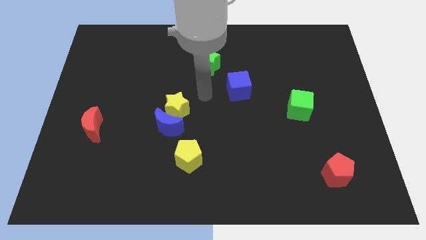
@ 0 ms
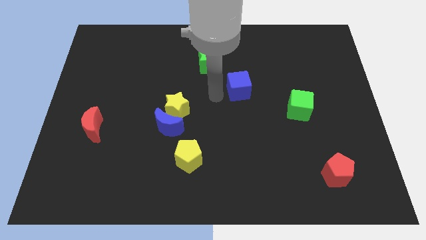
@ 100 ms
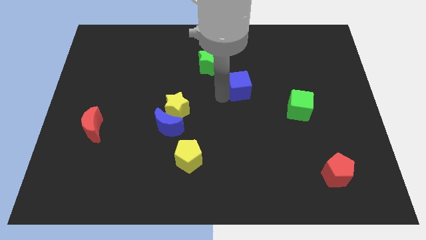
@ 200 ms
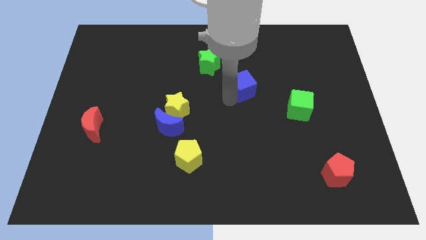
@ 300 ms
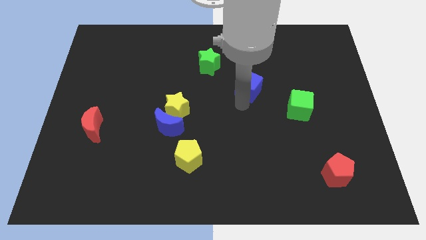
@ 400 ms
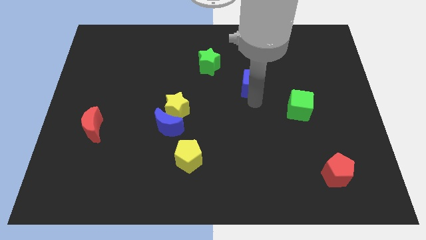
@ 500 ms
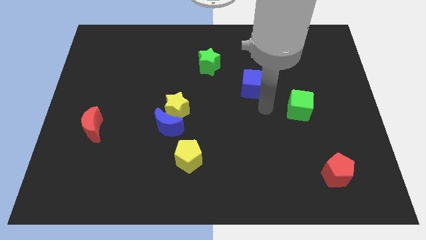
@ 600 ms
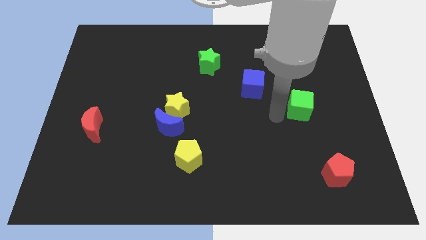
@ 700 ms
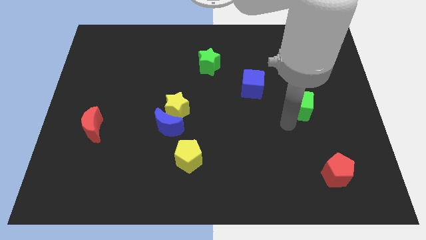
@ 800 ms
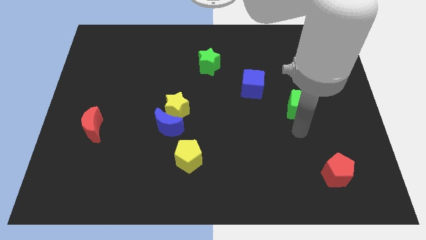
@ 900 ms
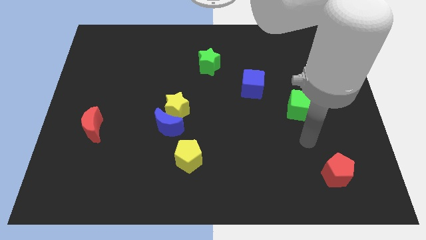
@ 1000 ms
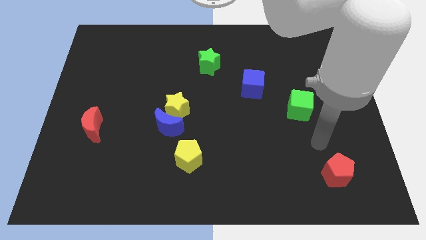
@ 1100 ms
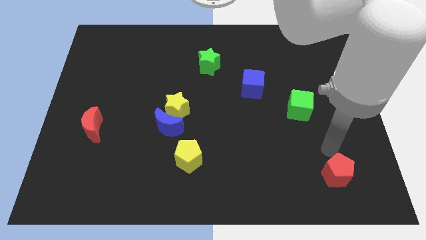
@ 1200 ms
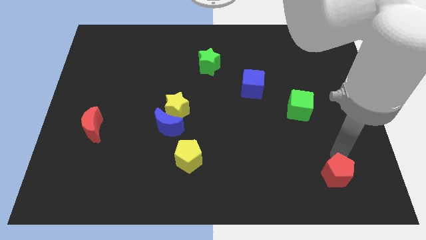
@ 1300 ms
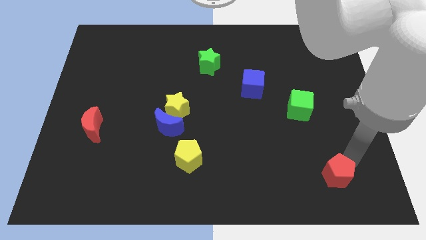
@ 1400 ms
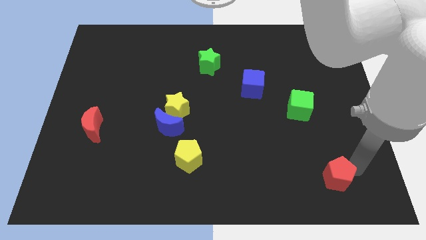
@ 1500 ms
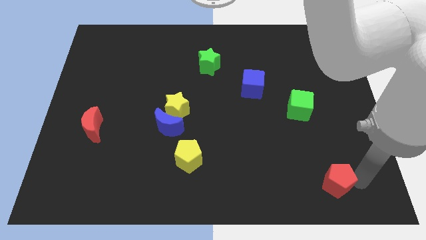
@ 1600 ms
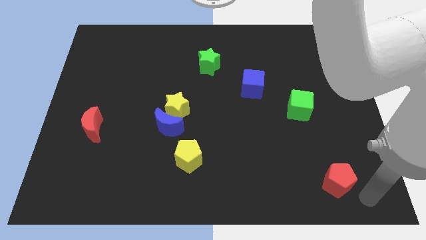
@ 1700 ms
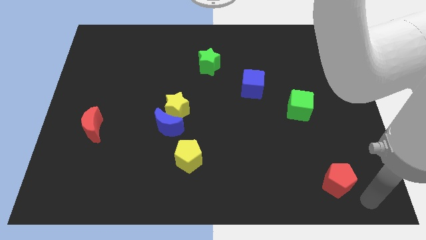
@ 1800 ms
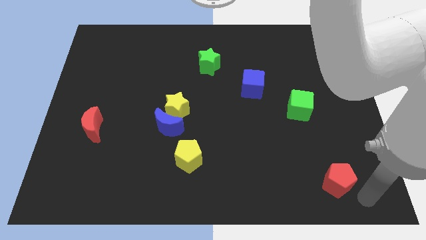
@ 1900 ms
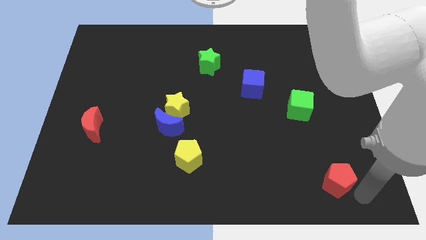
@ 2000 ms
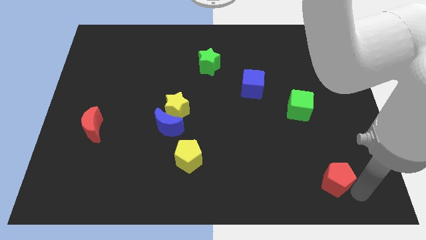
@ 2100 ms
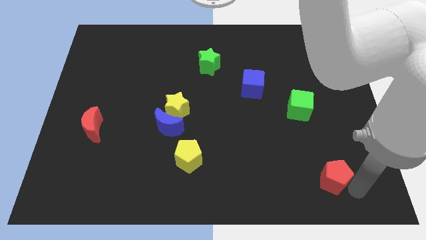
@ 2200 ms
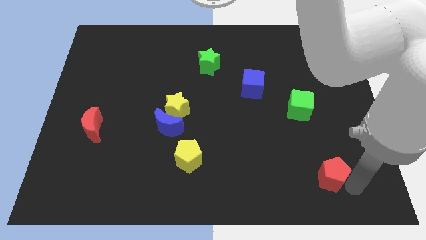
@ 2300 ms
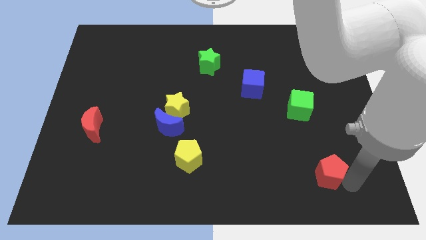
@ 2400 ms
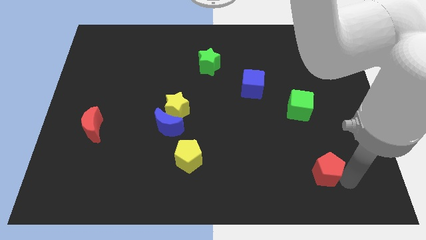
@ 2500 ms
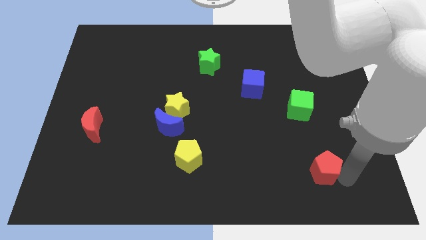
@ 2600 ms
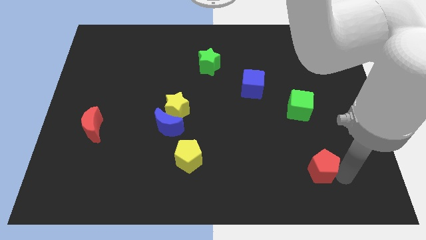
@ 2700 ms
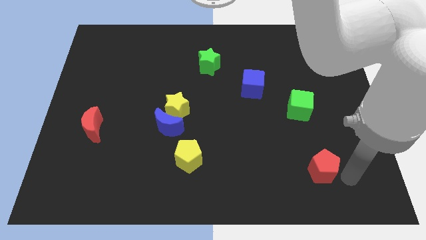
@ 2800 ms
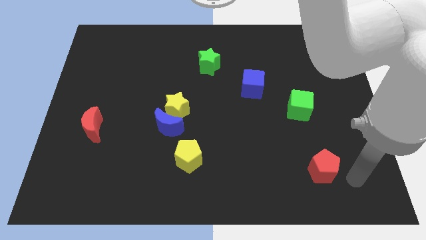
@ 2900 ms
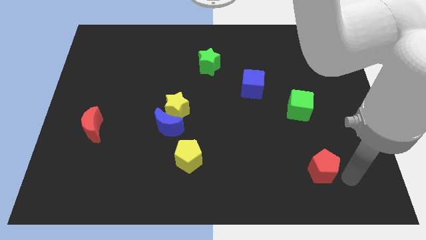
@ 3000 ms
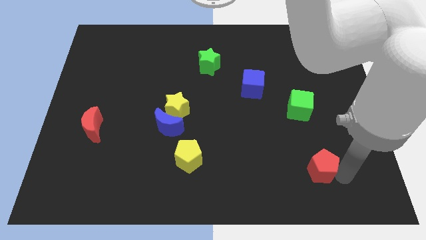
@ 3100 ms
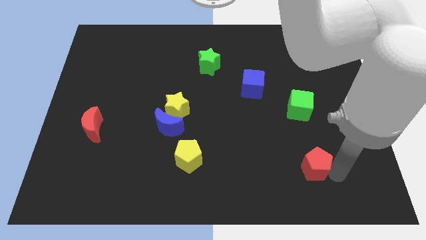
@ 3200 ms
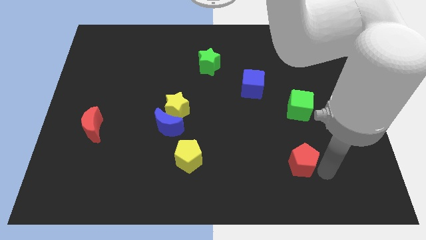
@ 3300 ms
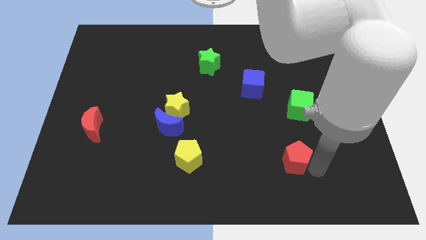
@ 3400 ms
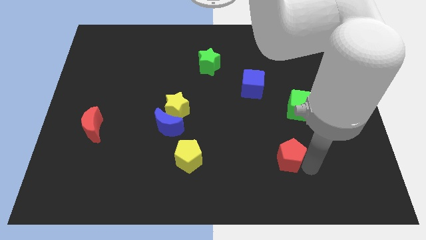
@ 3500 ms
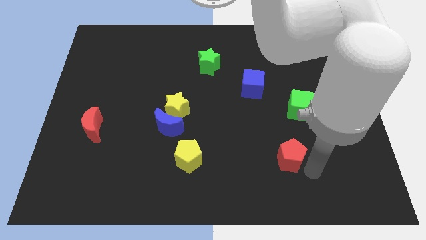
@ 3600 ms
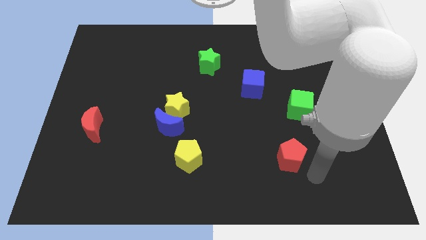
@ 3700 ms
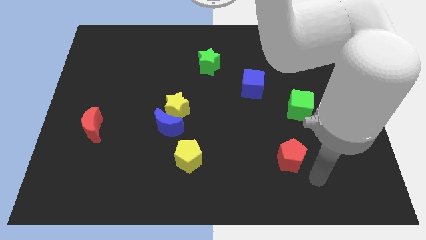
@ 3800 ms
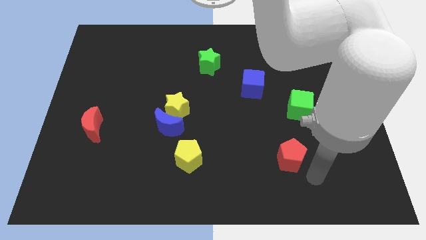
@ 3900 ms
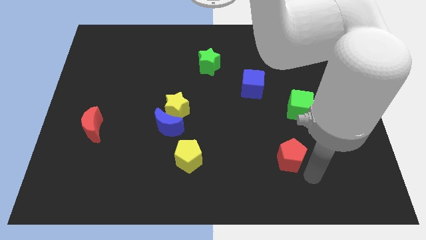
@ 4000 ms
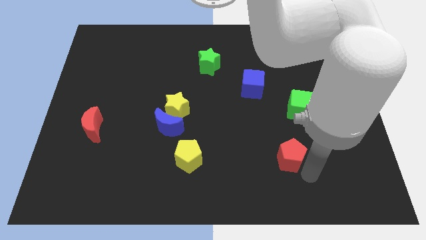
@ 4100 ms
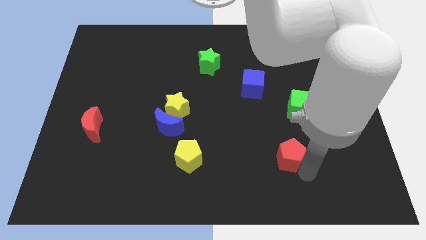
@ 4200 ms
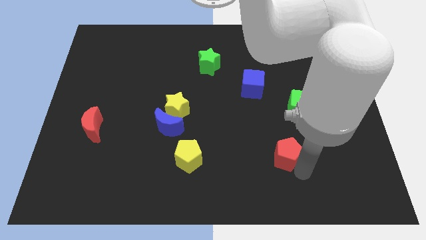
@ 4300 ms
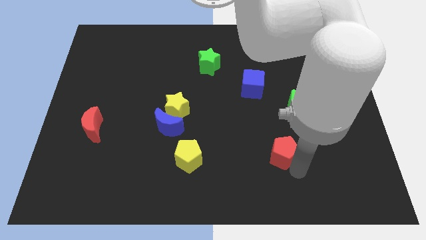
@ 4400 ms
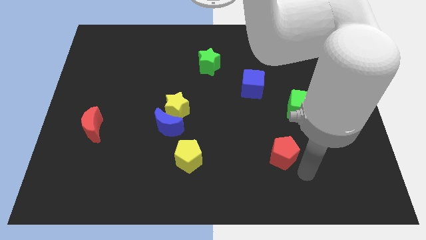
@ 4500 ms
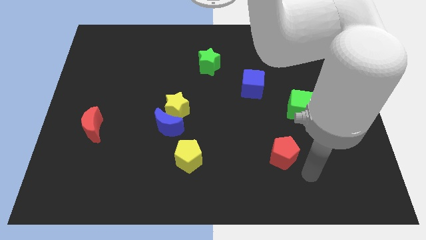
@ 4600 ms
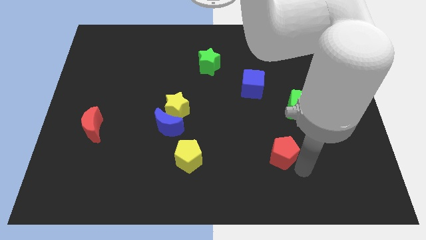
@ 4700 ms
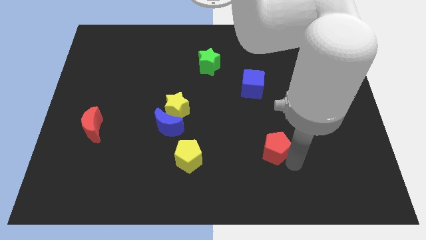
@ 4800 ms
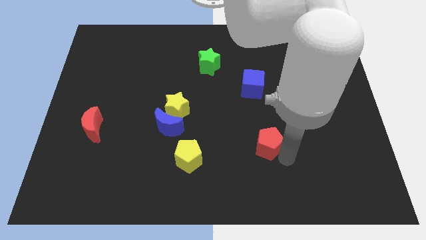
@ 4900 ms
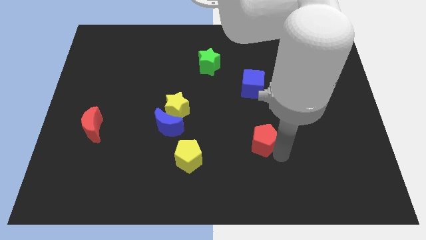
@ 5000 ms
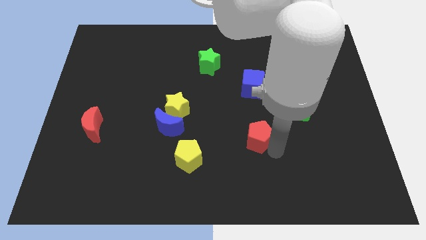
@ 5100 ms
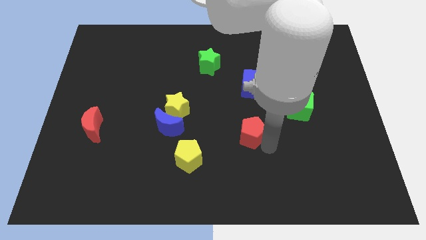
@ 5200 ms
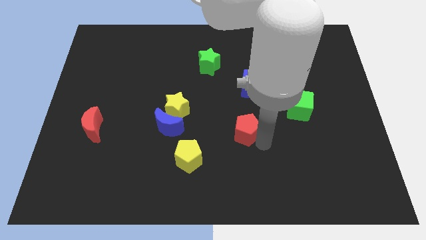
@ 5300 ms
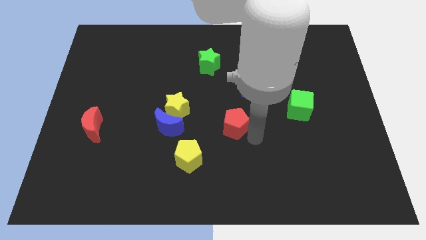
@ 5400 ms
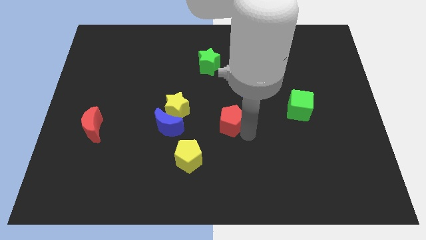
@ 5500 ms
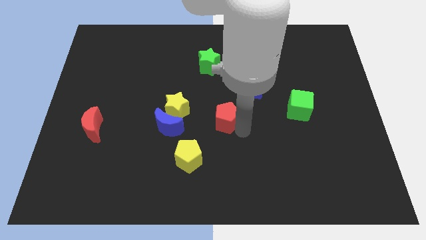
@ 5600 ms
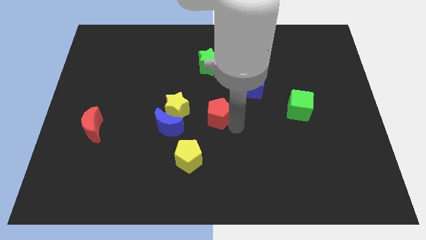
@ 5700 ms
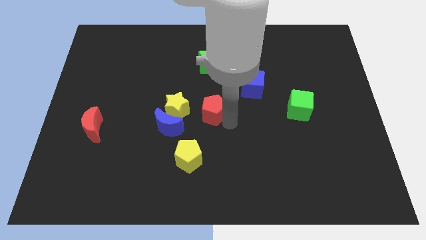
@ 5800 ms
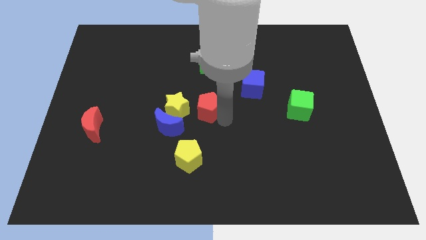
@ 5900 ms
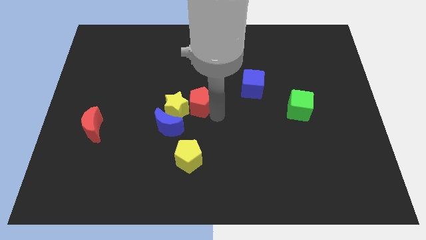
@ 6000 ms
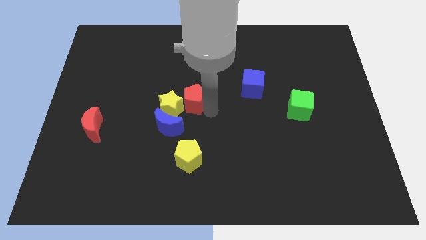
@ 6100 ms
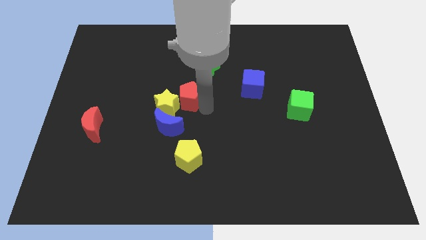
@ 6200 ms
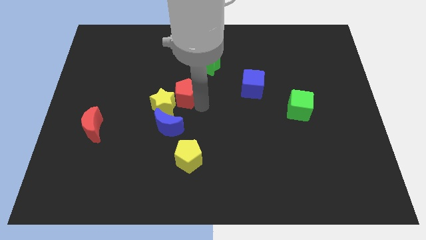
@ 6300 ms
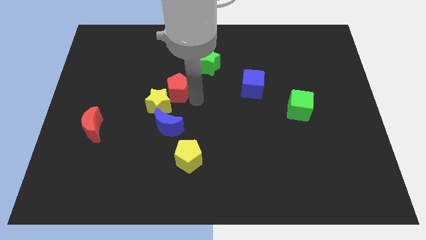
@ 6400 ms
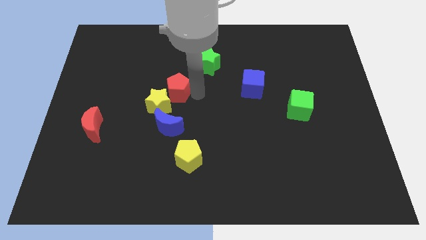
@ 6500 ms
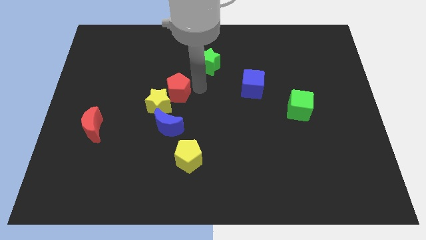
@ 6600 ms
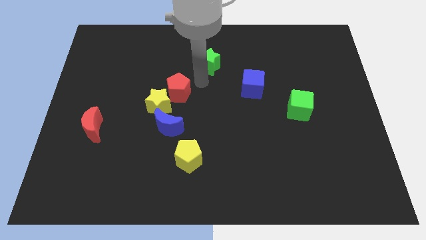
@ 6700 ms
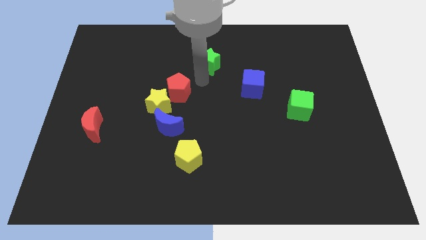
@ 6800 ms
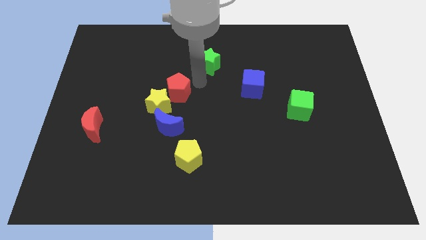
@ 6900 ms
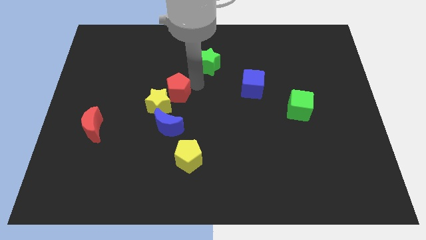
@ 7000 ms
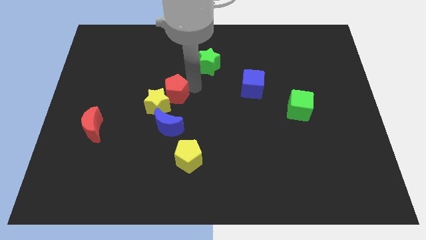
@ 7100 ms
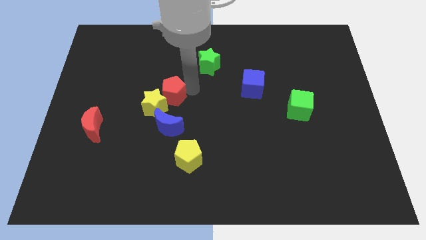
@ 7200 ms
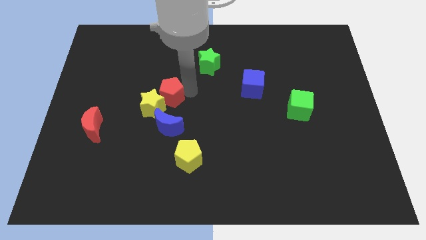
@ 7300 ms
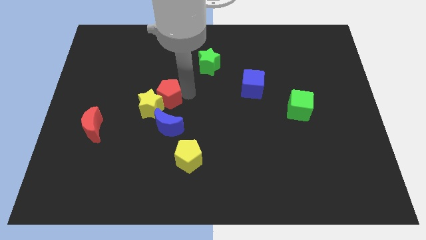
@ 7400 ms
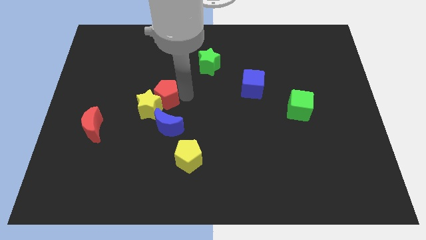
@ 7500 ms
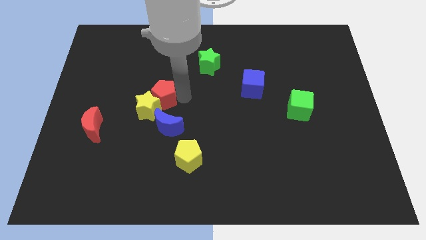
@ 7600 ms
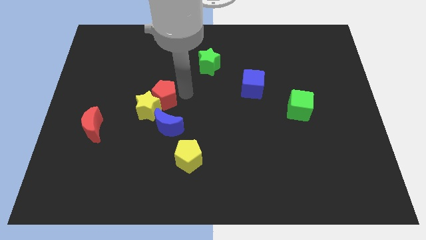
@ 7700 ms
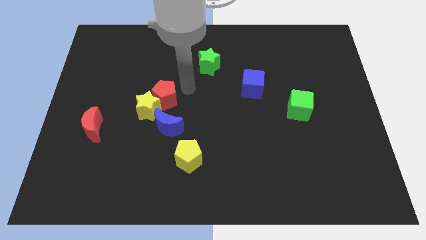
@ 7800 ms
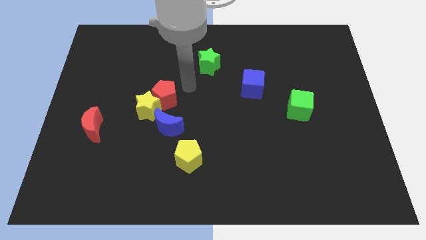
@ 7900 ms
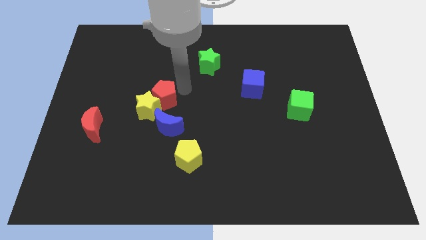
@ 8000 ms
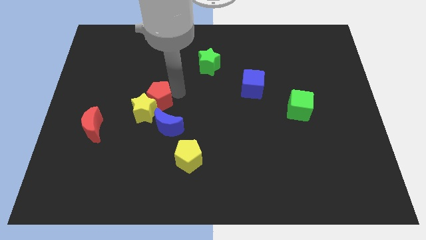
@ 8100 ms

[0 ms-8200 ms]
put the red pentagon to the top left side of the blue moon
